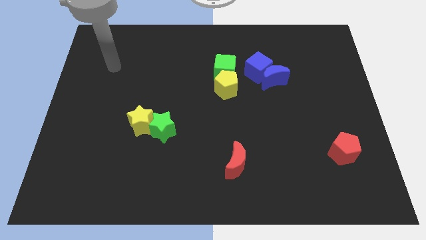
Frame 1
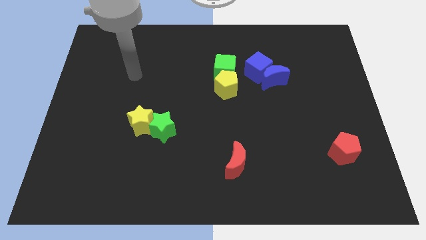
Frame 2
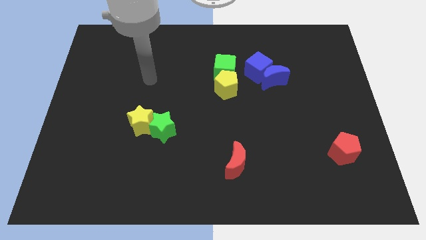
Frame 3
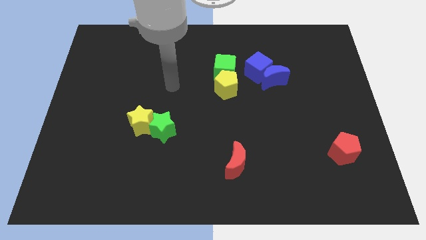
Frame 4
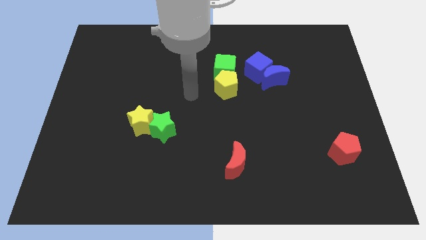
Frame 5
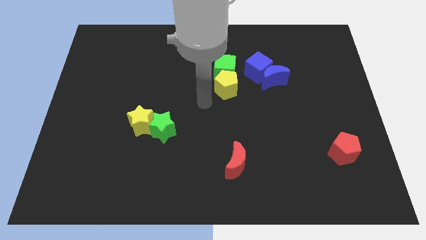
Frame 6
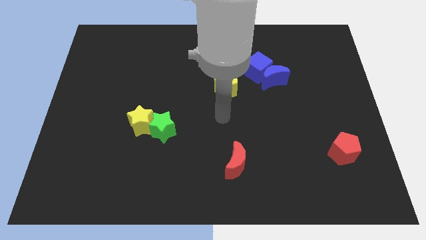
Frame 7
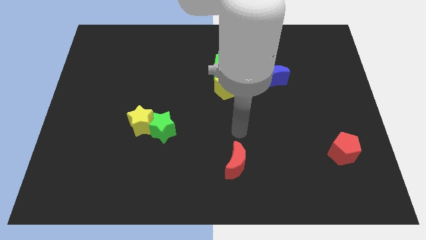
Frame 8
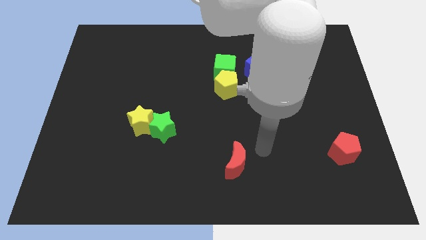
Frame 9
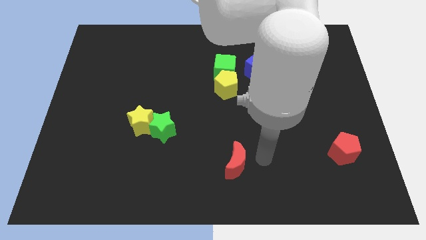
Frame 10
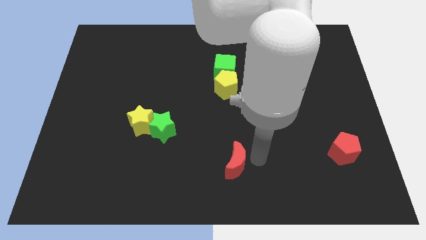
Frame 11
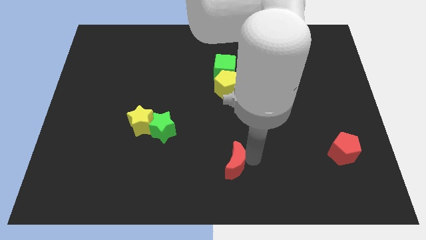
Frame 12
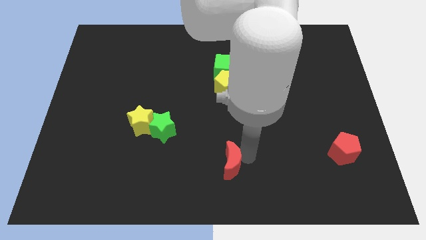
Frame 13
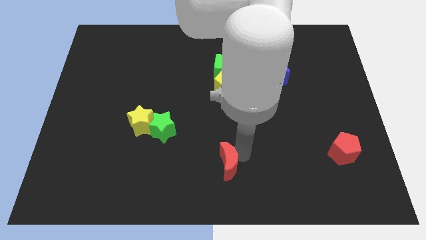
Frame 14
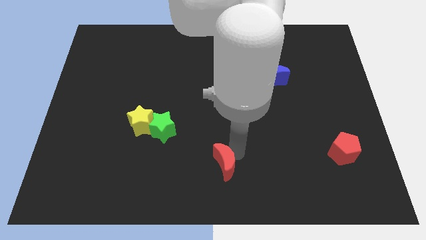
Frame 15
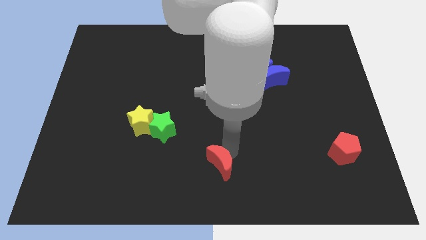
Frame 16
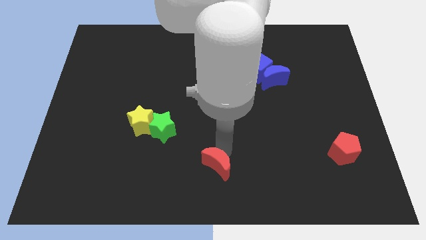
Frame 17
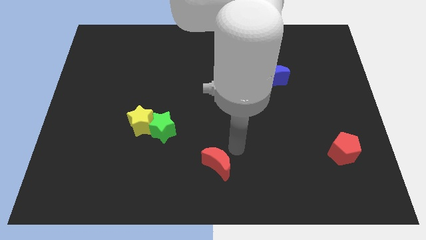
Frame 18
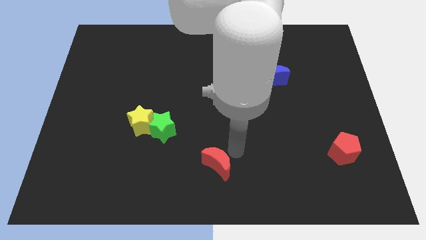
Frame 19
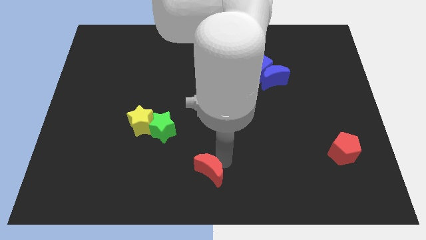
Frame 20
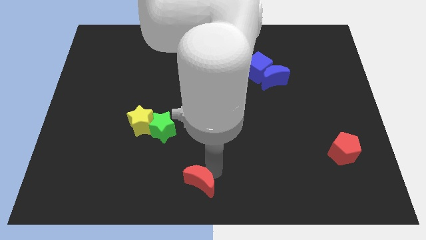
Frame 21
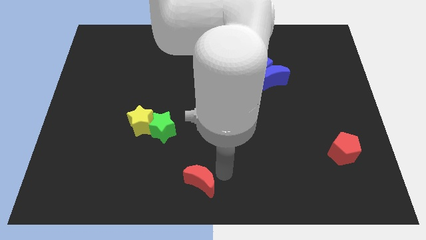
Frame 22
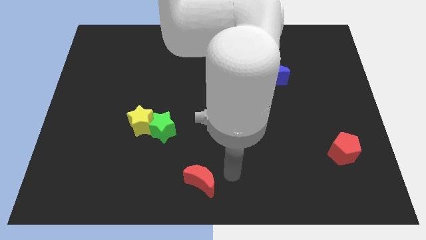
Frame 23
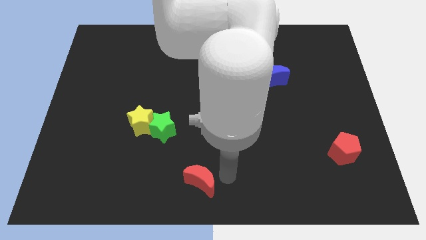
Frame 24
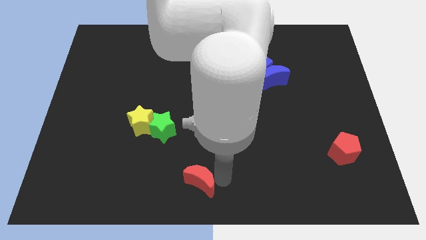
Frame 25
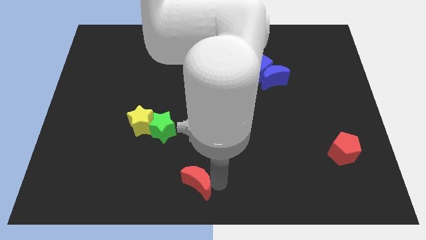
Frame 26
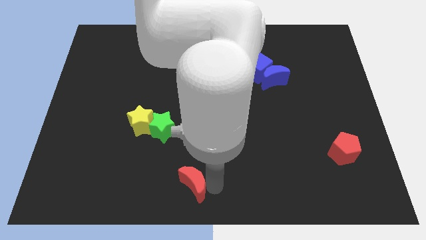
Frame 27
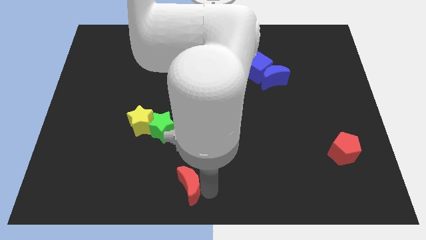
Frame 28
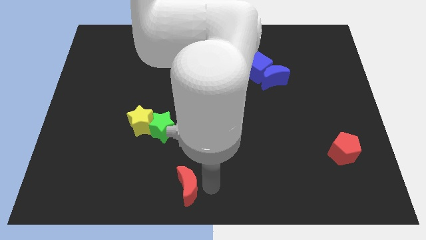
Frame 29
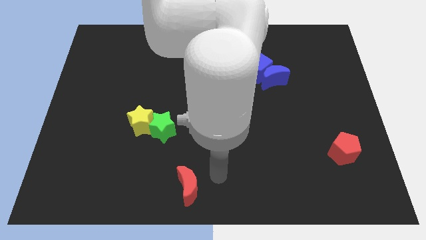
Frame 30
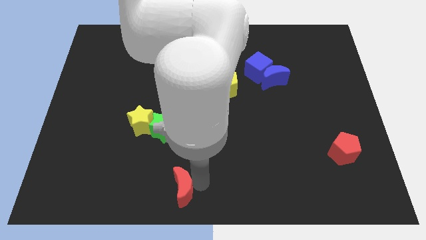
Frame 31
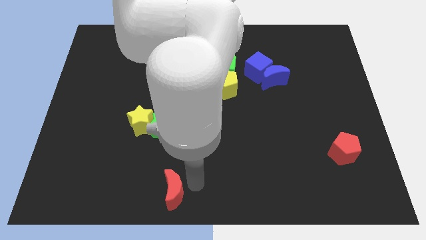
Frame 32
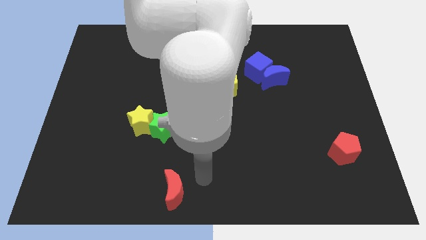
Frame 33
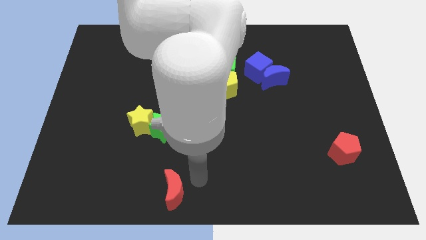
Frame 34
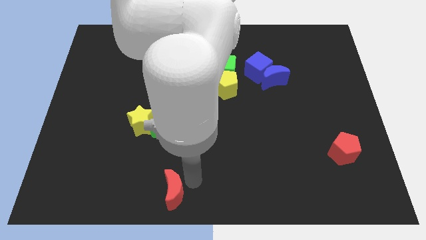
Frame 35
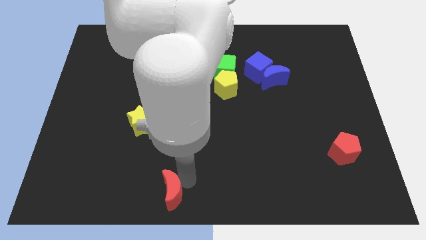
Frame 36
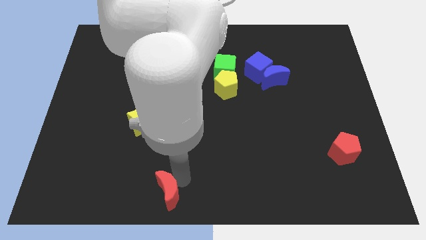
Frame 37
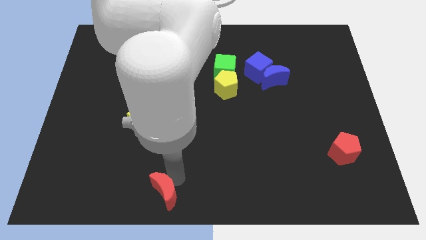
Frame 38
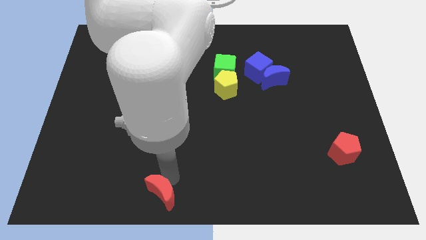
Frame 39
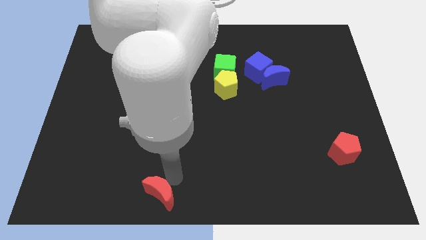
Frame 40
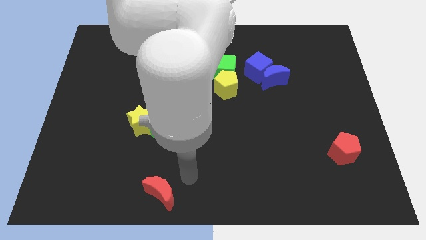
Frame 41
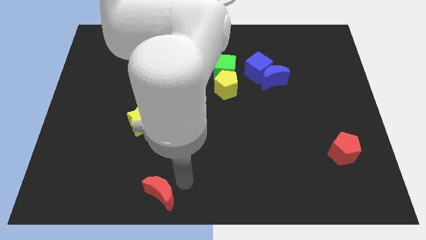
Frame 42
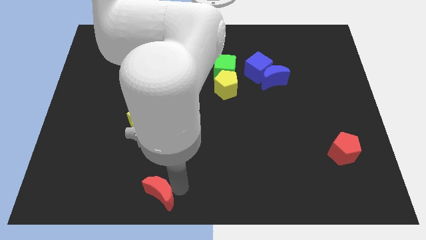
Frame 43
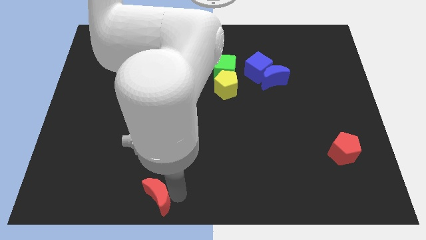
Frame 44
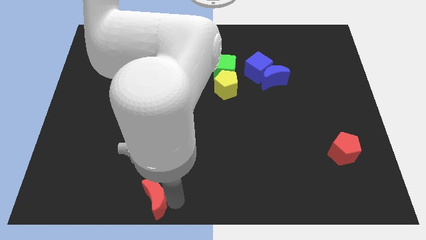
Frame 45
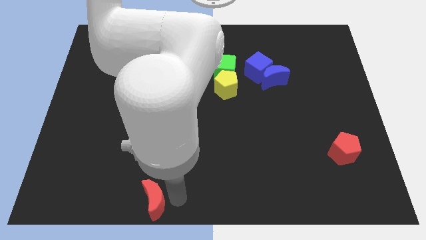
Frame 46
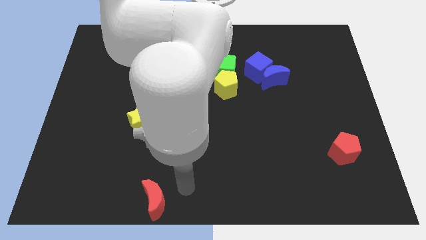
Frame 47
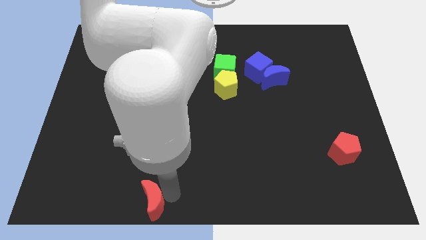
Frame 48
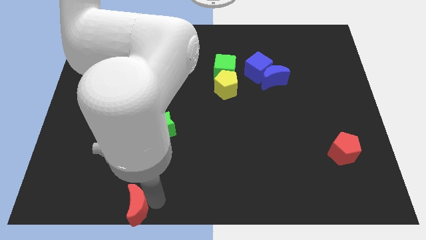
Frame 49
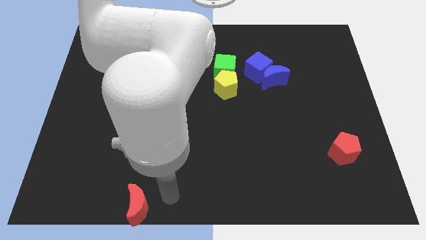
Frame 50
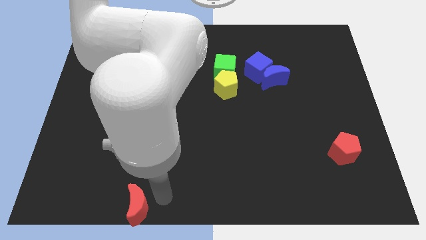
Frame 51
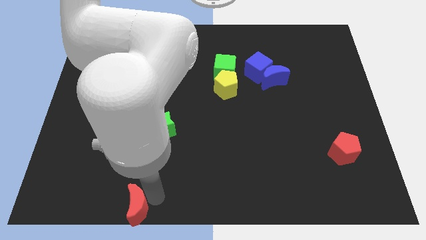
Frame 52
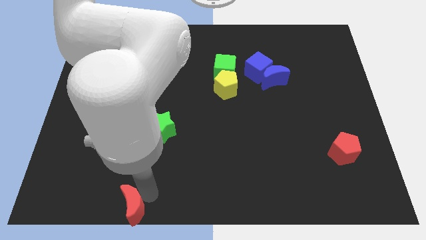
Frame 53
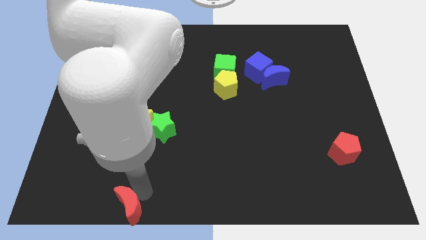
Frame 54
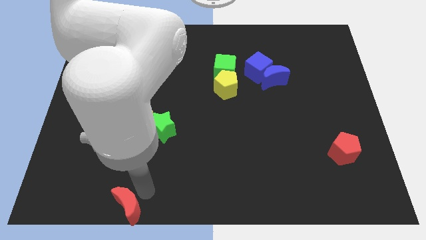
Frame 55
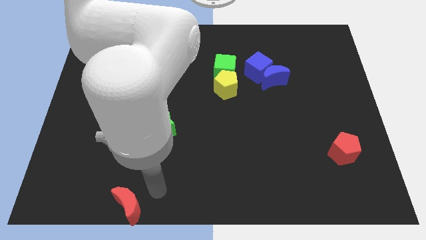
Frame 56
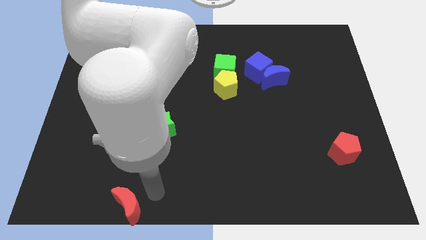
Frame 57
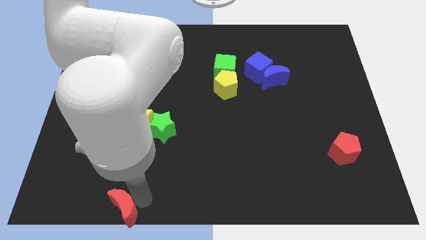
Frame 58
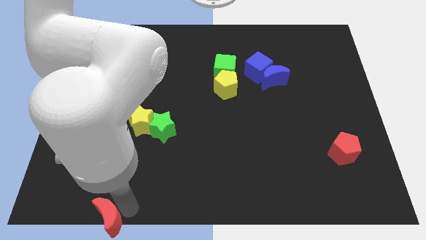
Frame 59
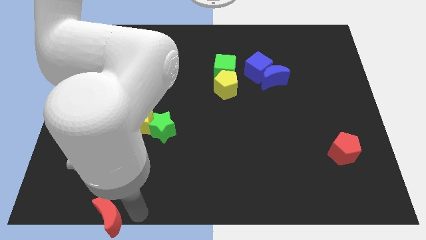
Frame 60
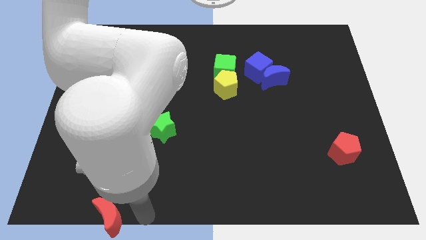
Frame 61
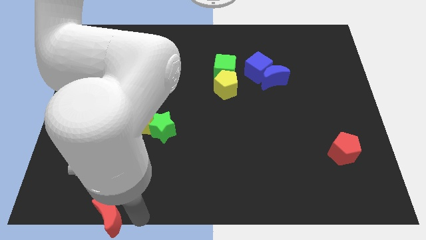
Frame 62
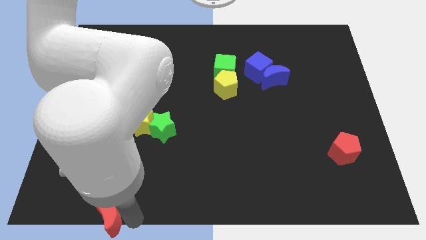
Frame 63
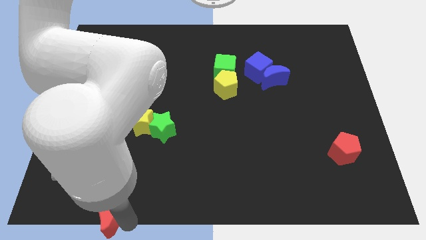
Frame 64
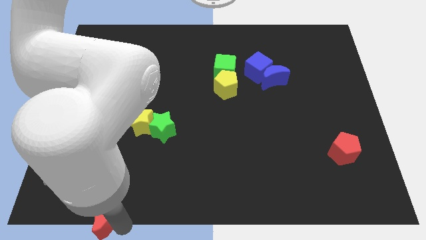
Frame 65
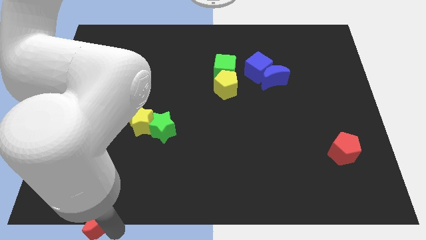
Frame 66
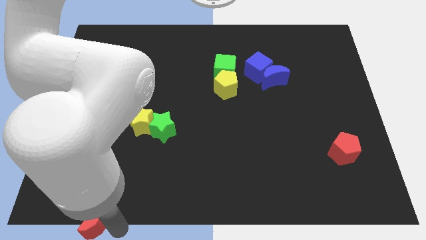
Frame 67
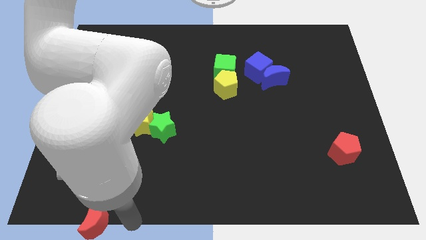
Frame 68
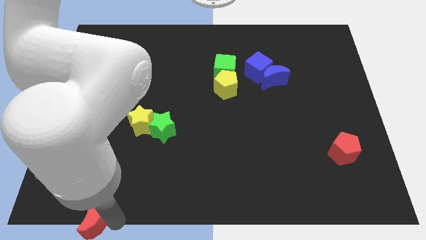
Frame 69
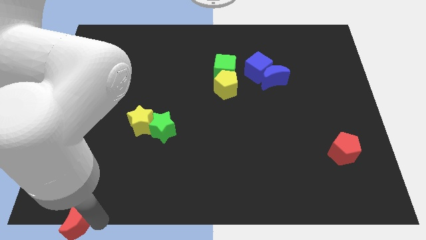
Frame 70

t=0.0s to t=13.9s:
push the red moon to the bottom left corner
